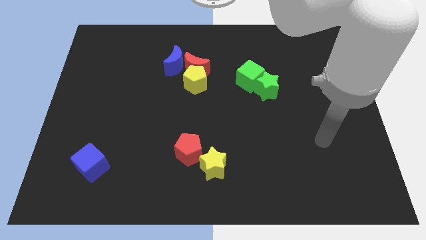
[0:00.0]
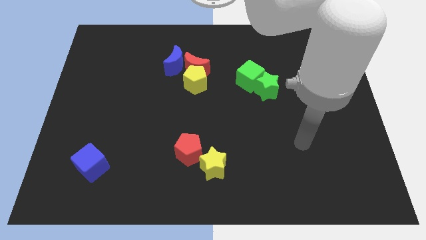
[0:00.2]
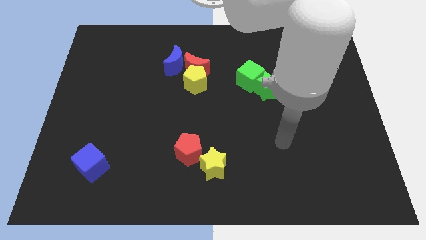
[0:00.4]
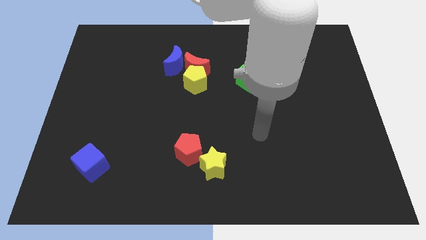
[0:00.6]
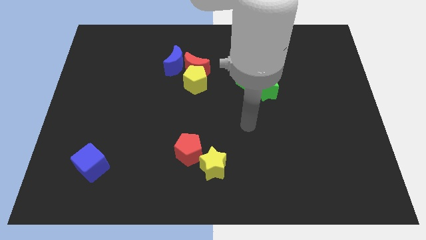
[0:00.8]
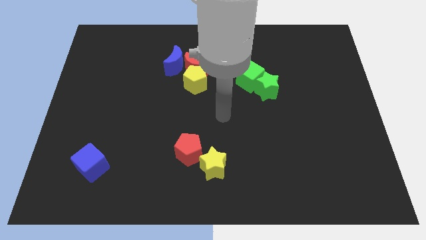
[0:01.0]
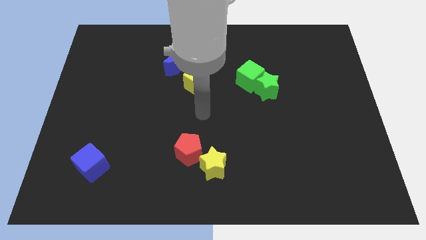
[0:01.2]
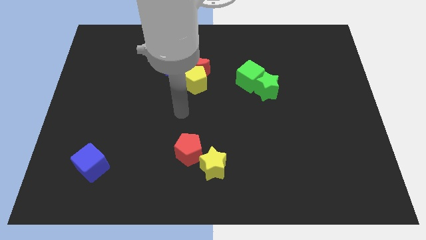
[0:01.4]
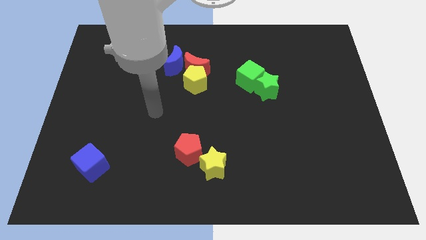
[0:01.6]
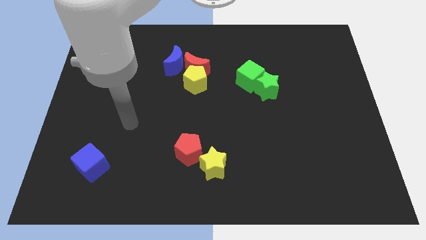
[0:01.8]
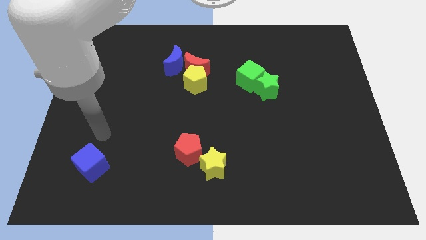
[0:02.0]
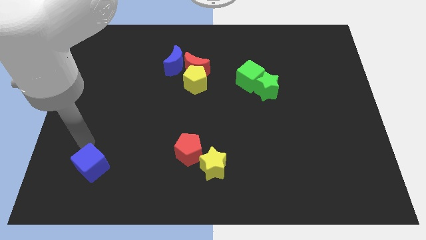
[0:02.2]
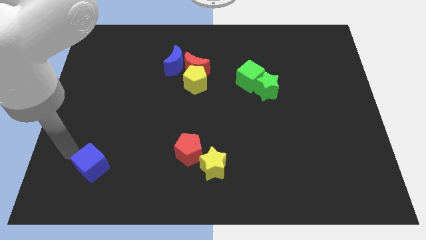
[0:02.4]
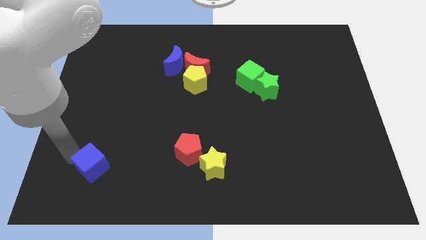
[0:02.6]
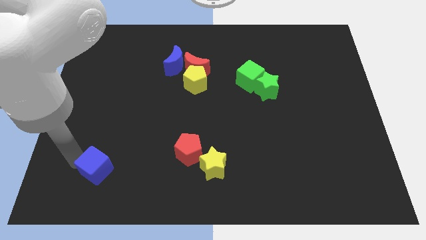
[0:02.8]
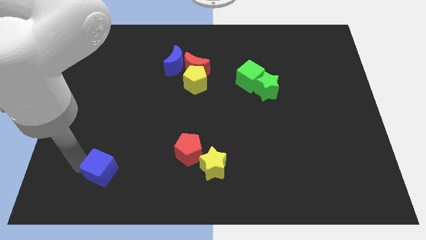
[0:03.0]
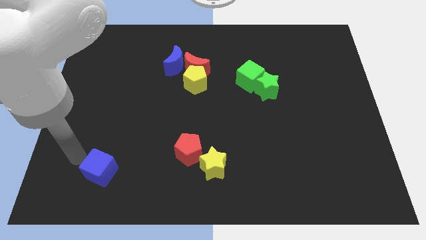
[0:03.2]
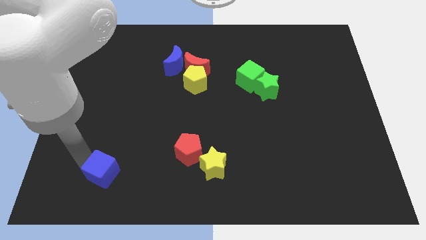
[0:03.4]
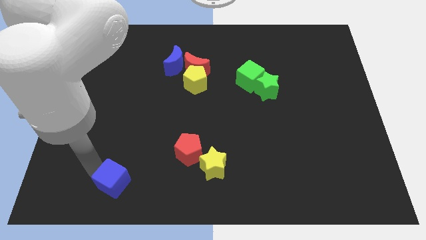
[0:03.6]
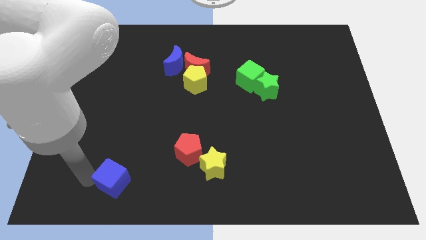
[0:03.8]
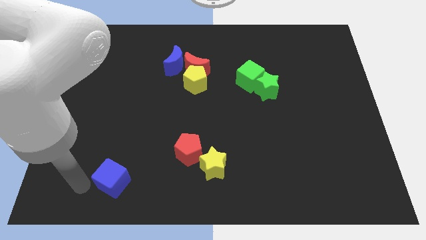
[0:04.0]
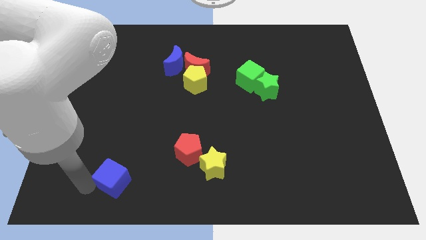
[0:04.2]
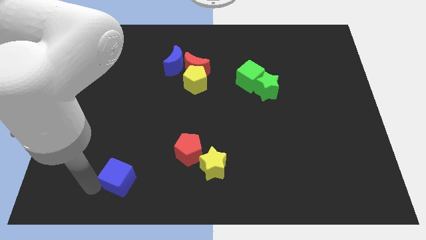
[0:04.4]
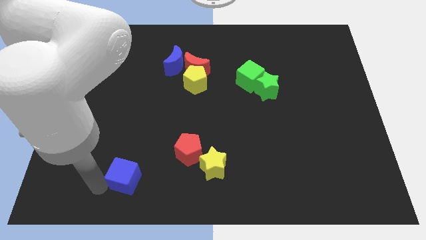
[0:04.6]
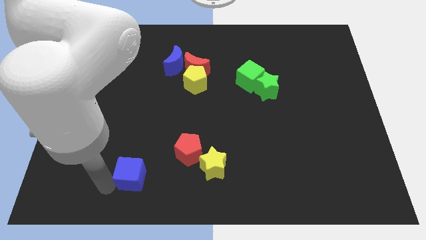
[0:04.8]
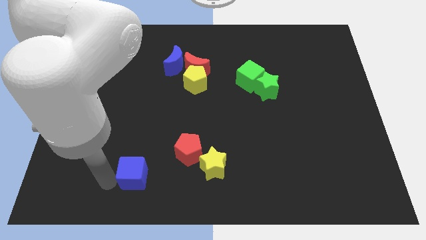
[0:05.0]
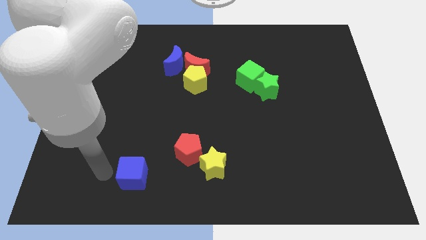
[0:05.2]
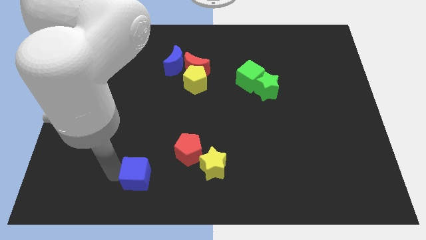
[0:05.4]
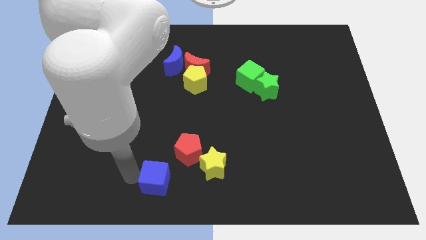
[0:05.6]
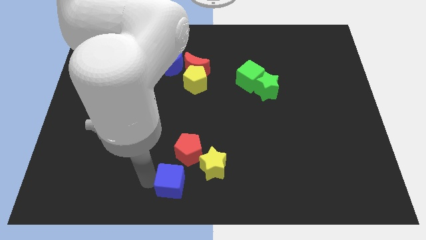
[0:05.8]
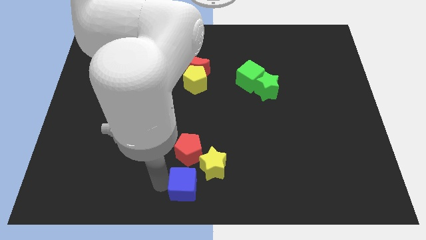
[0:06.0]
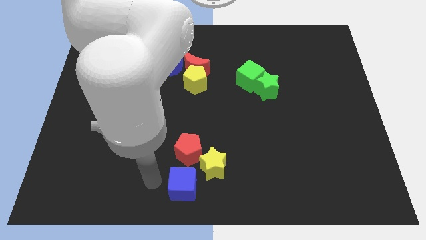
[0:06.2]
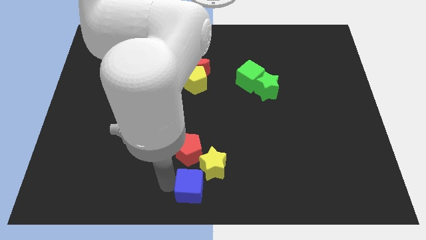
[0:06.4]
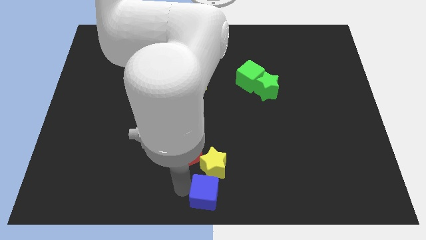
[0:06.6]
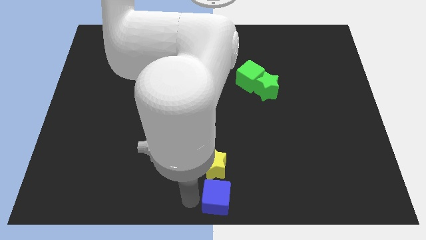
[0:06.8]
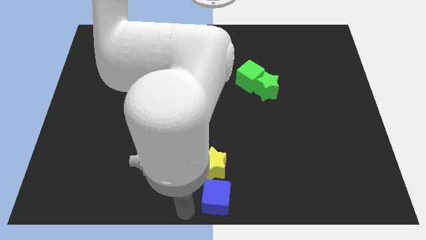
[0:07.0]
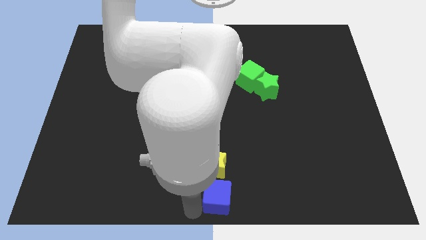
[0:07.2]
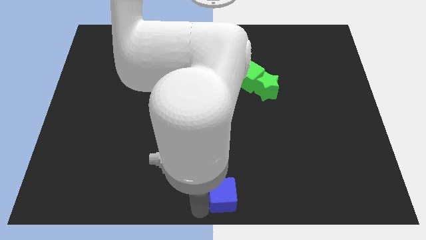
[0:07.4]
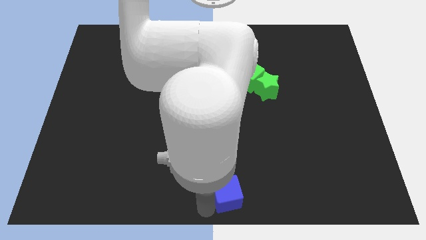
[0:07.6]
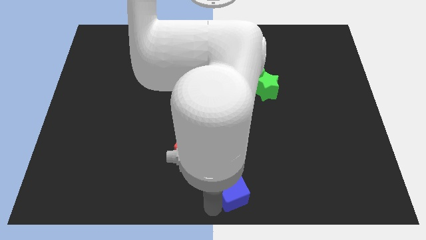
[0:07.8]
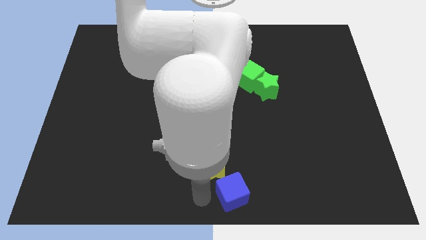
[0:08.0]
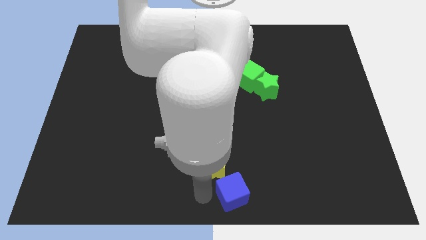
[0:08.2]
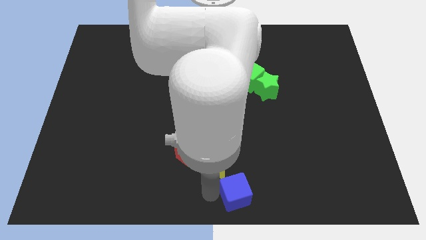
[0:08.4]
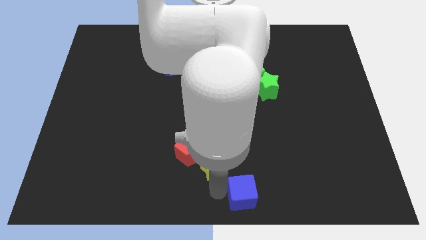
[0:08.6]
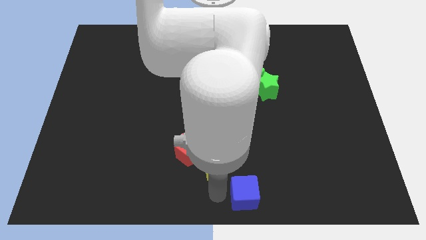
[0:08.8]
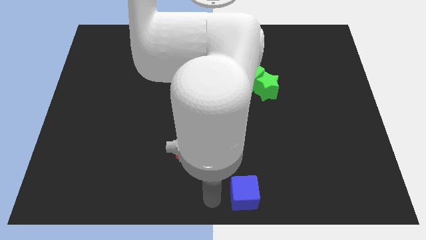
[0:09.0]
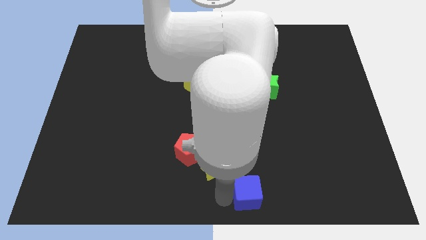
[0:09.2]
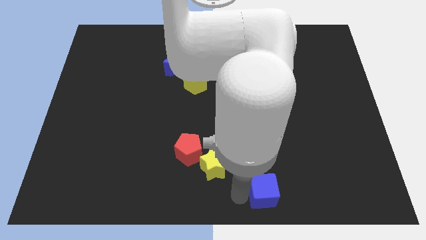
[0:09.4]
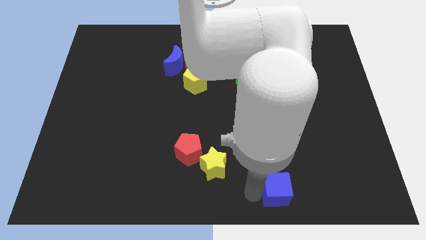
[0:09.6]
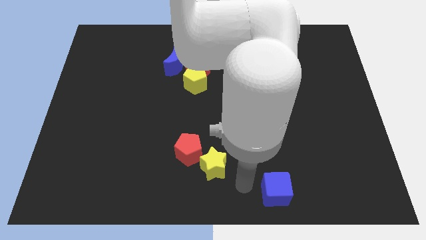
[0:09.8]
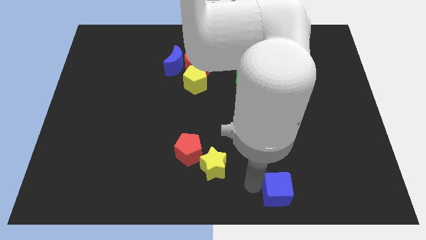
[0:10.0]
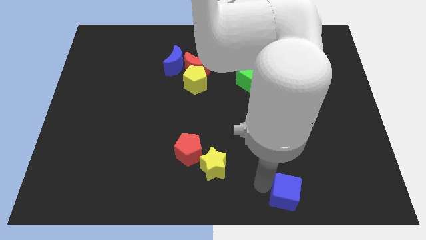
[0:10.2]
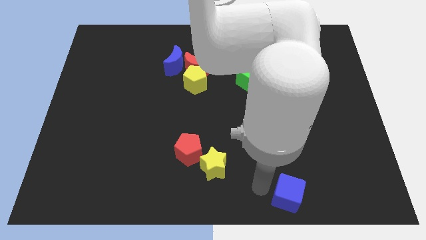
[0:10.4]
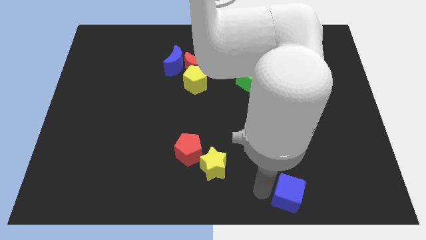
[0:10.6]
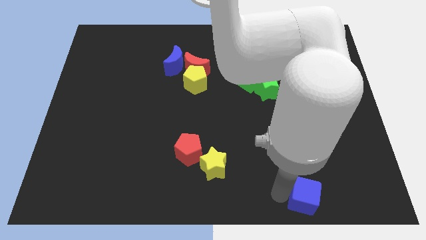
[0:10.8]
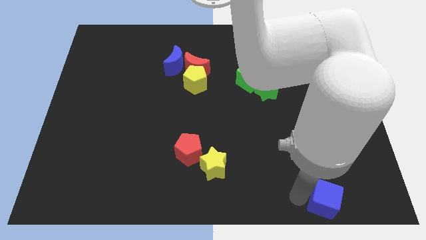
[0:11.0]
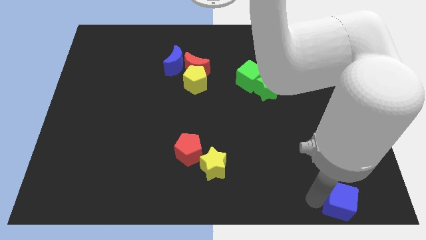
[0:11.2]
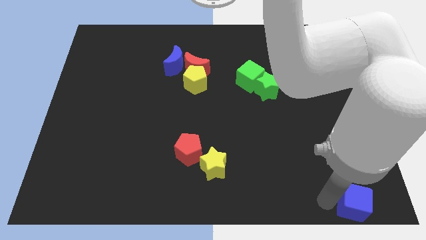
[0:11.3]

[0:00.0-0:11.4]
slide the blue cube to the bottom right corner
